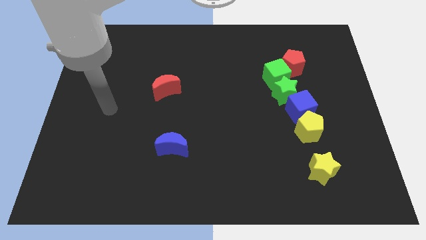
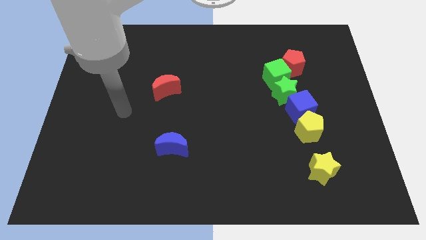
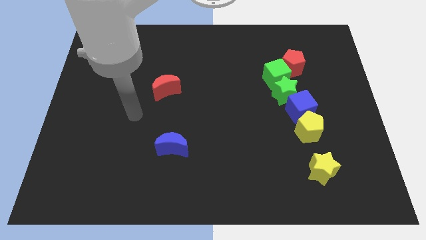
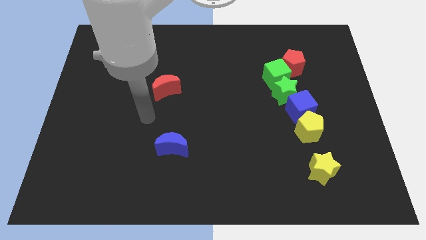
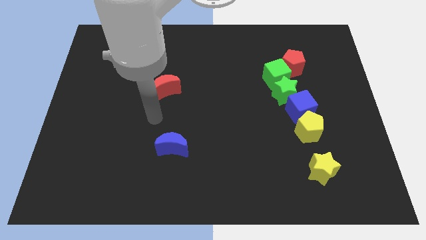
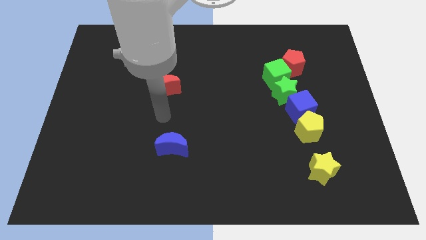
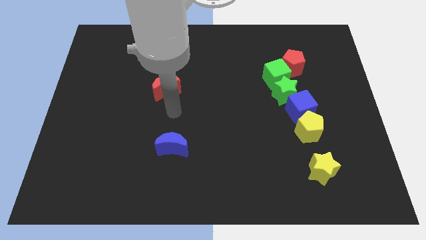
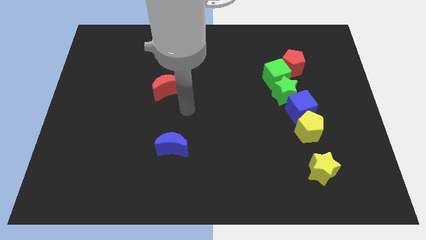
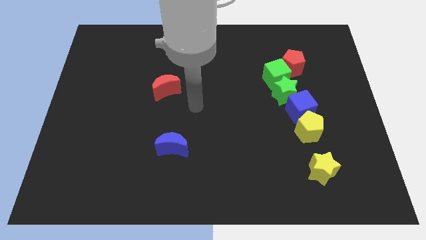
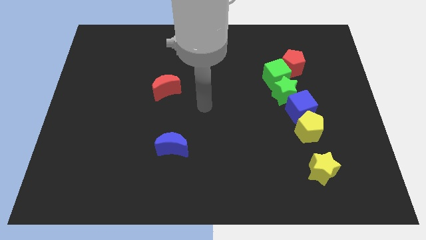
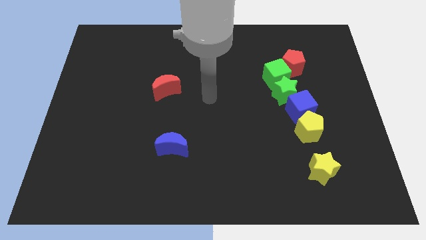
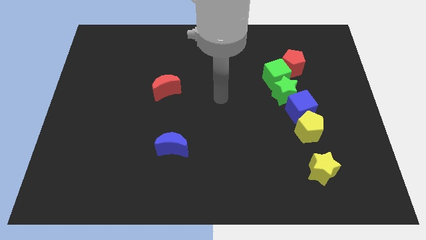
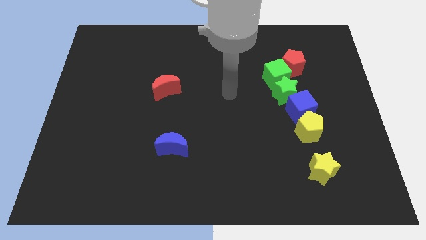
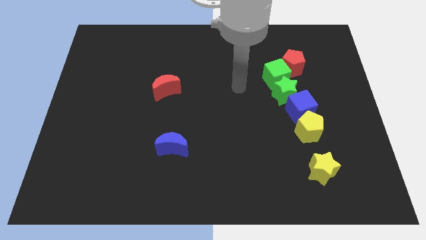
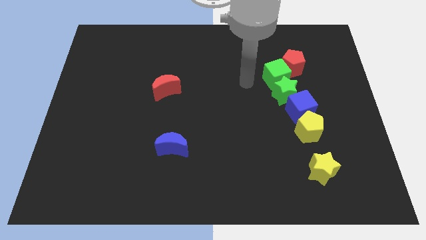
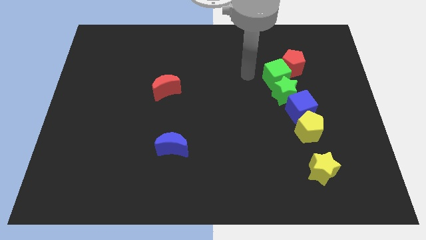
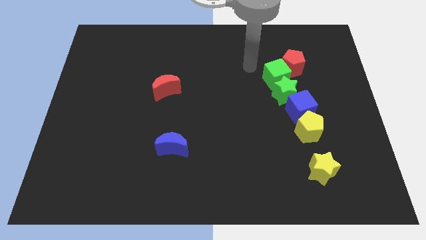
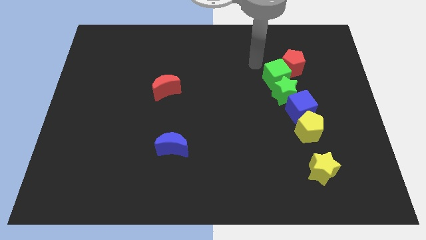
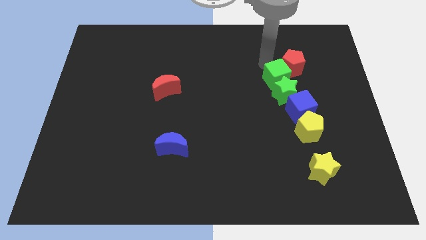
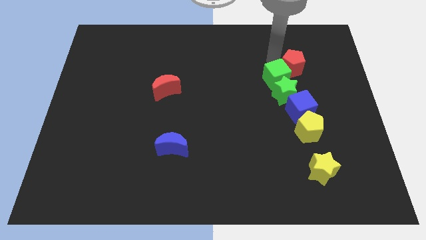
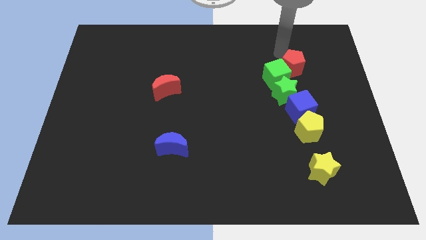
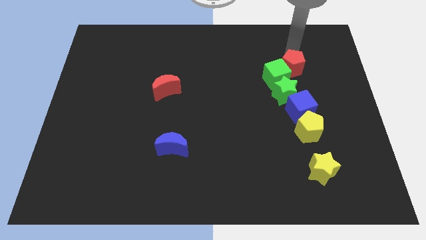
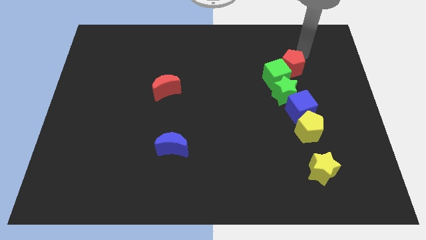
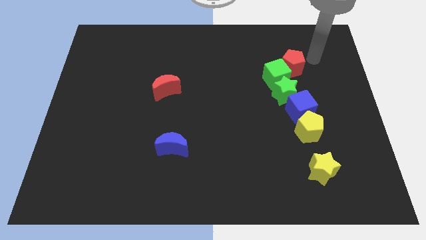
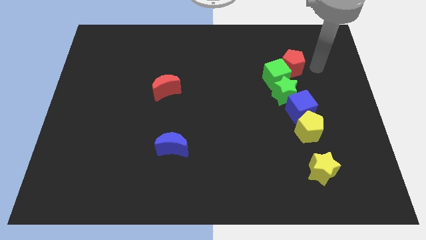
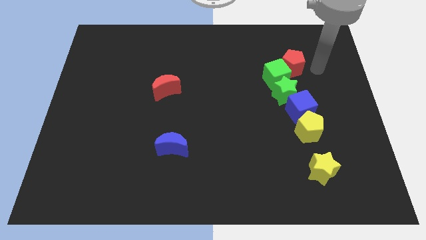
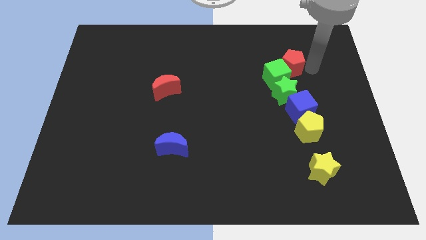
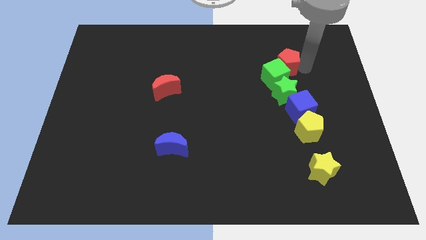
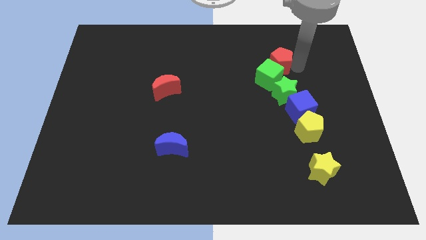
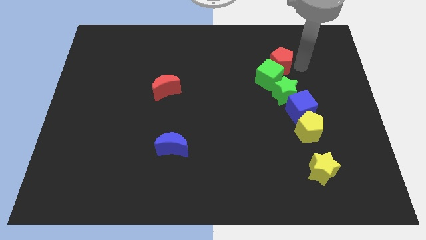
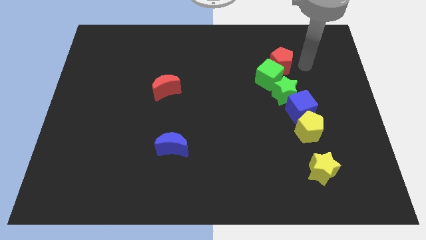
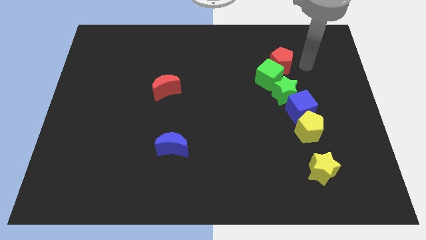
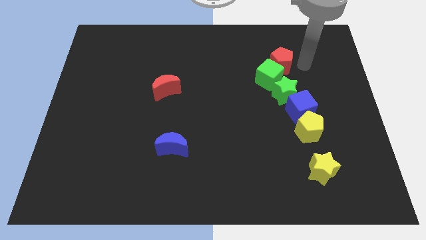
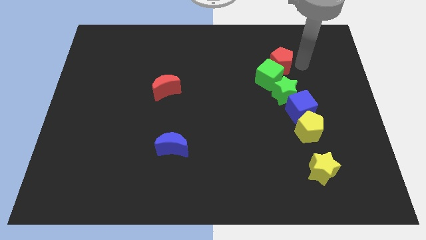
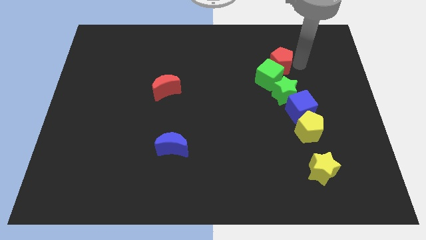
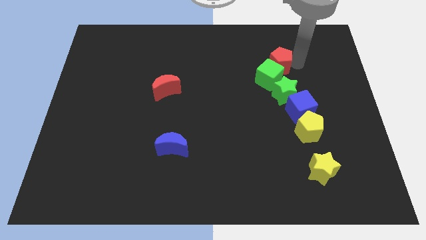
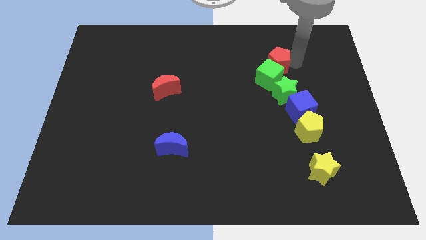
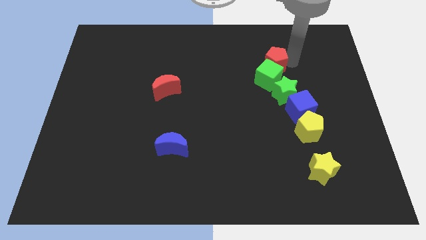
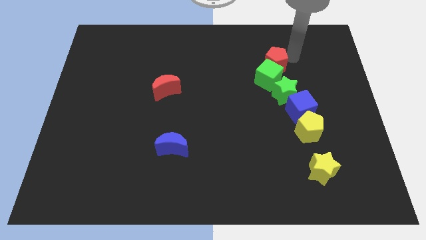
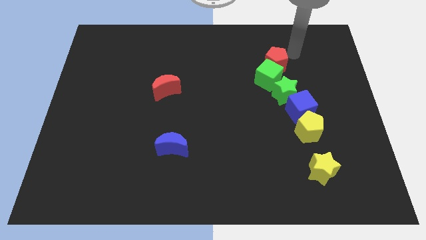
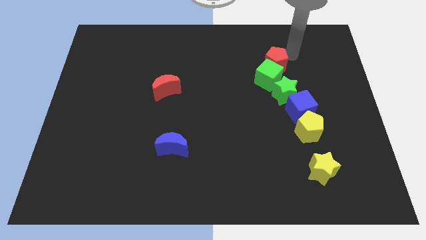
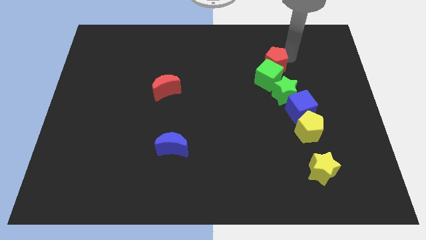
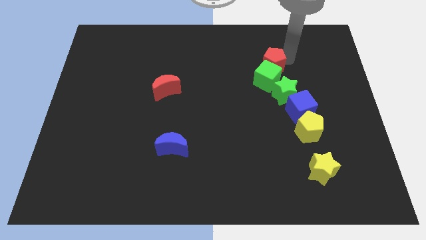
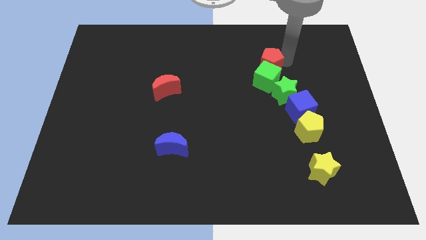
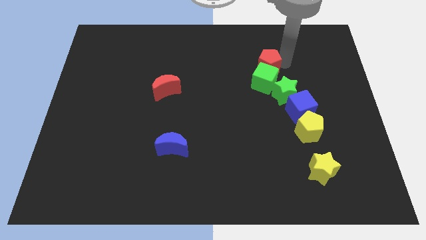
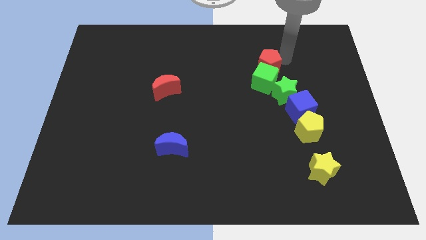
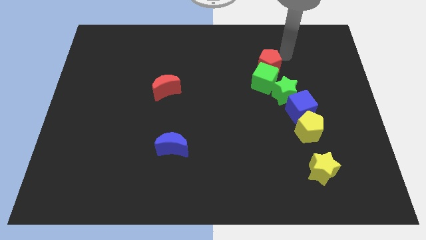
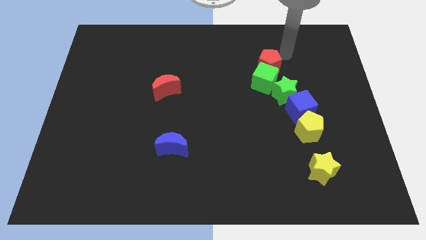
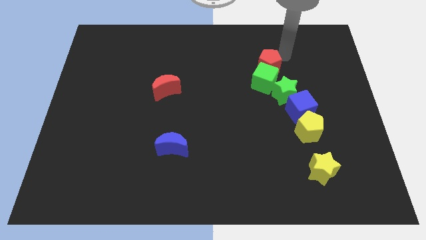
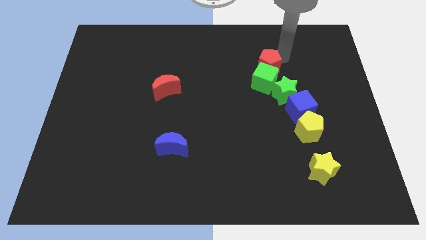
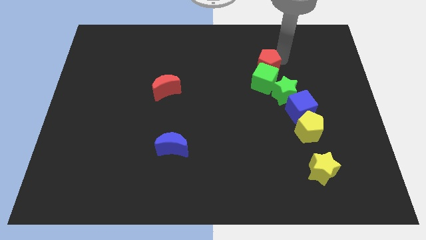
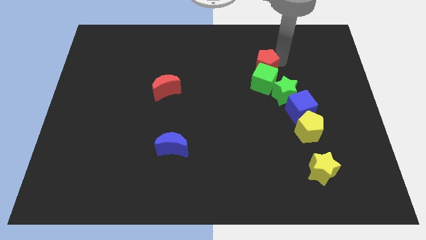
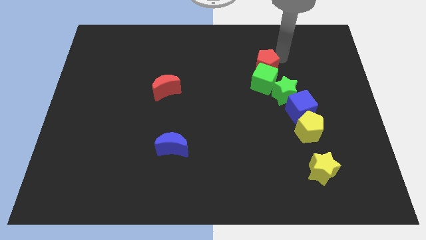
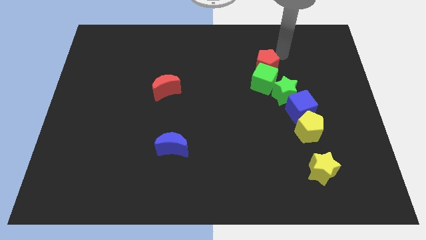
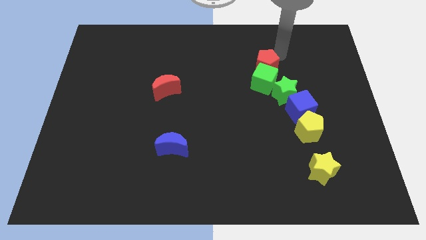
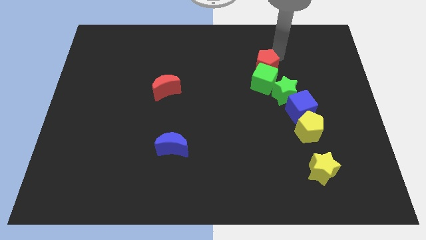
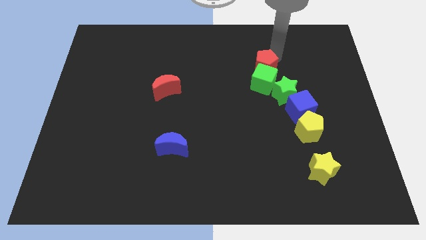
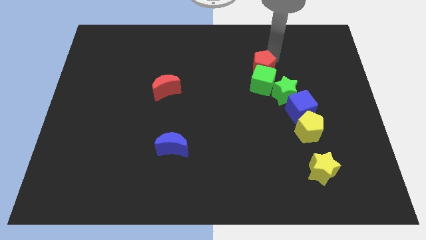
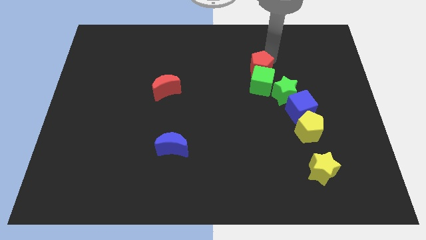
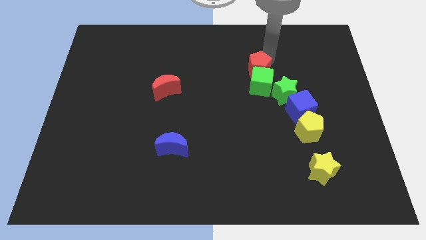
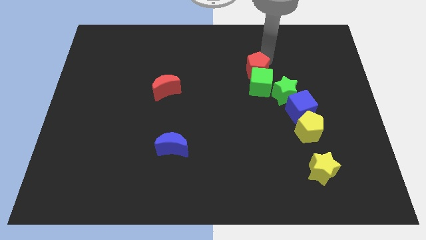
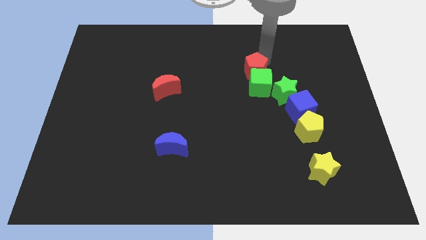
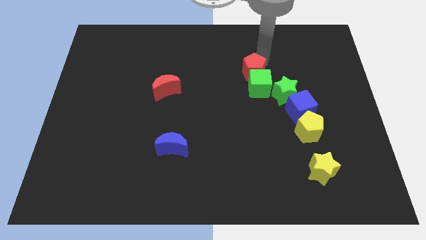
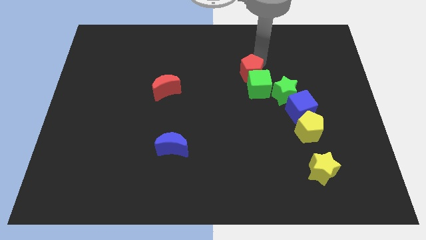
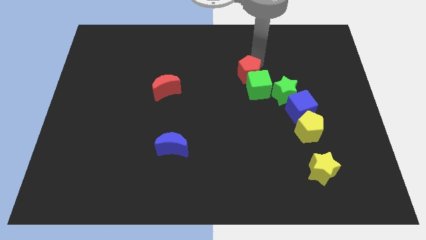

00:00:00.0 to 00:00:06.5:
move the red pentagon to the middle

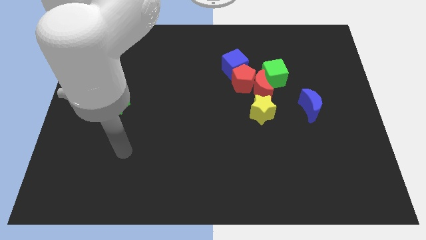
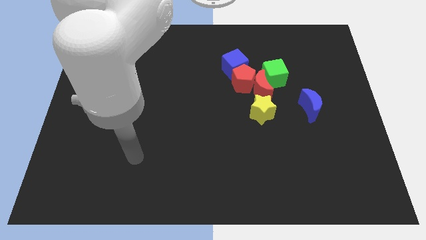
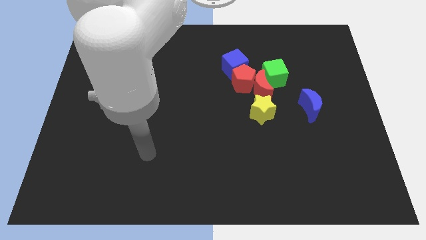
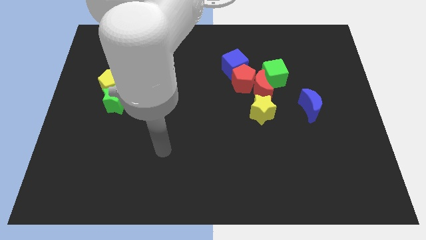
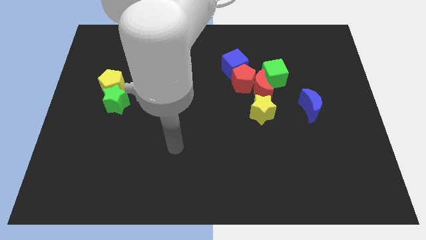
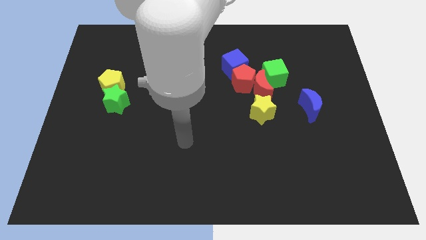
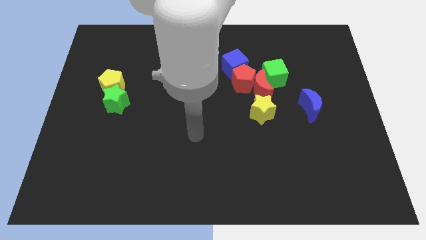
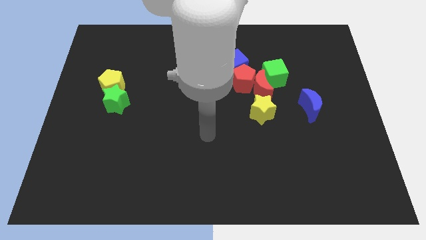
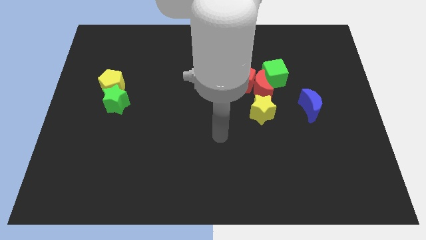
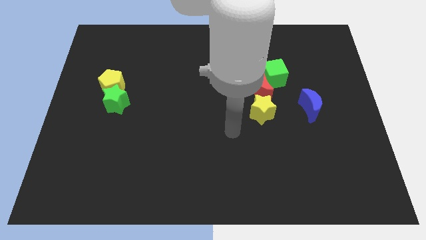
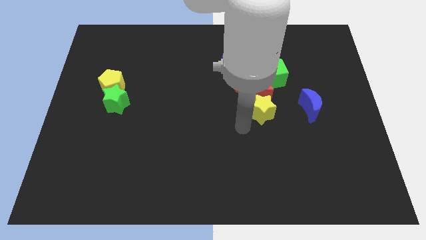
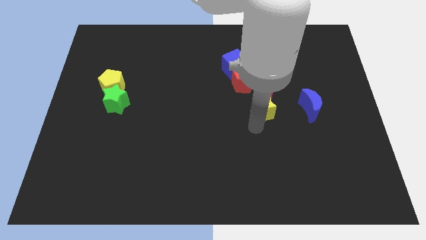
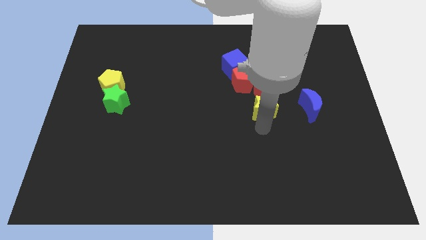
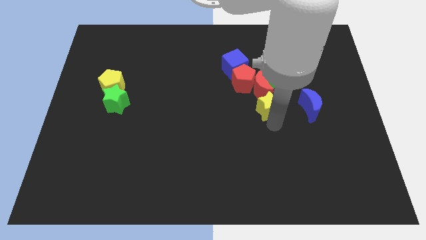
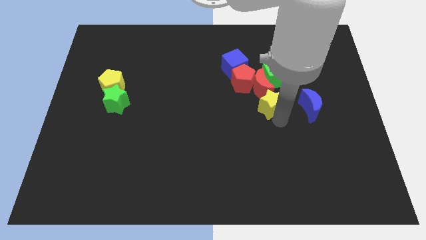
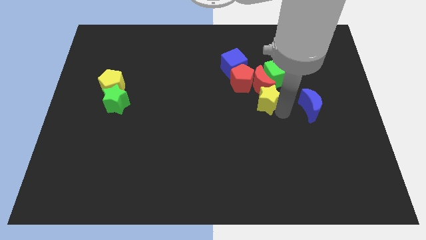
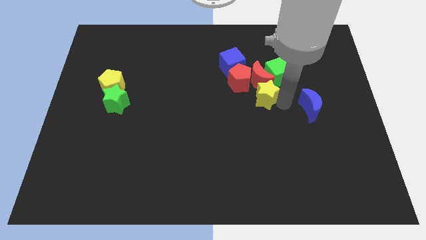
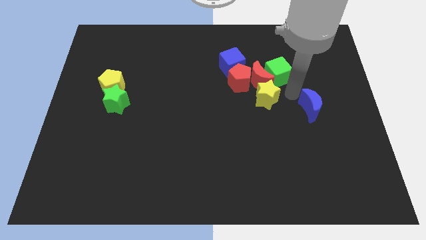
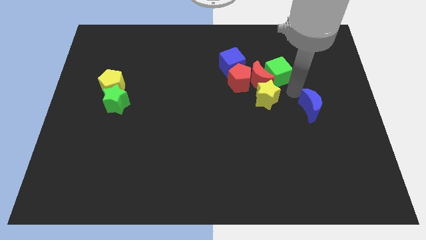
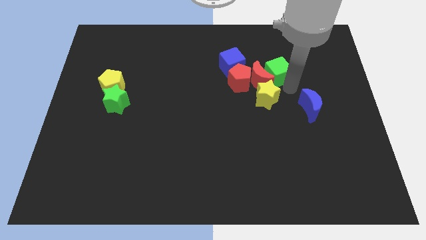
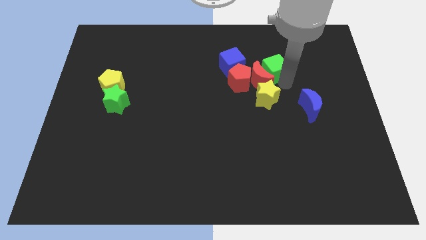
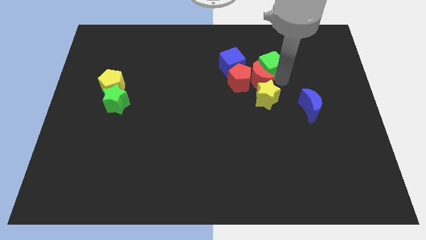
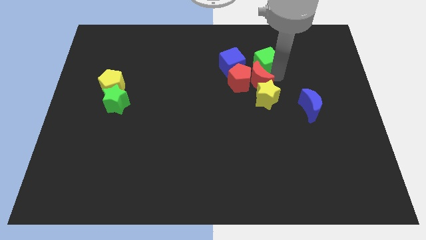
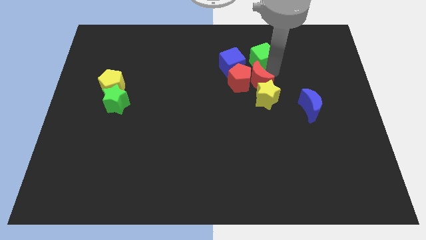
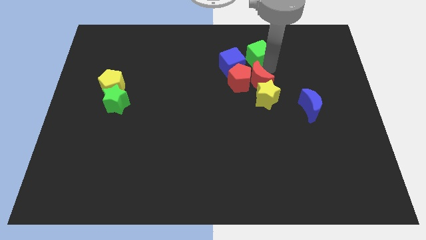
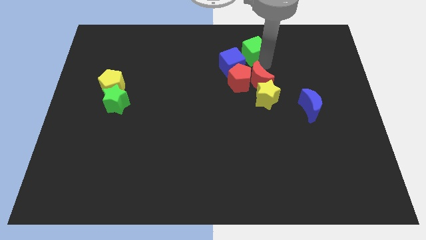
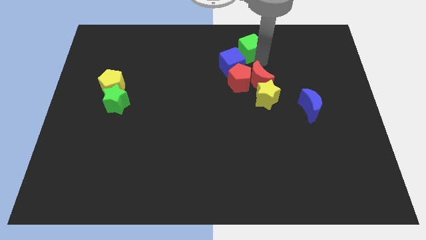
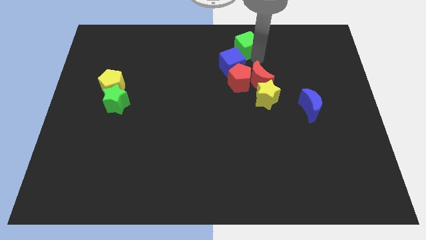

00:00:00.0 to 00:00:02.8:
move the green cube to the top
